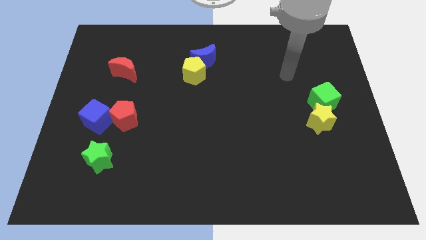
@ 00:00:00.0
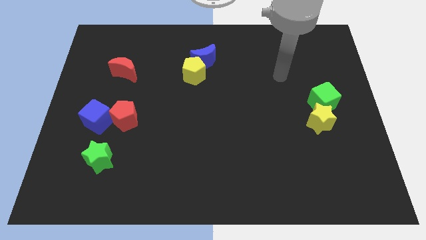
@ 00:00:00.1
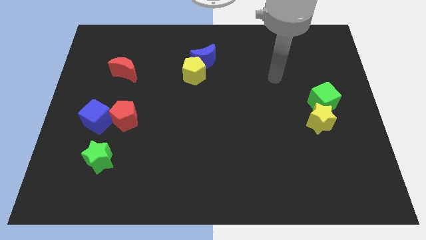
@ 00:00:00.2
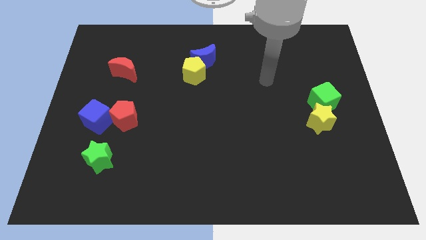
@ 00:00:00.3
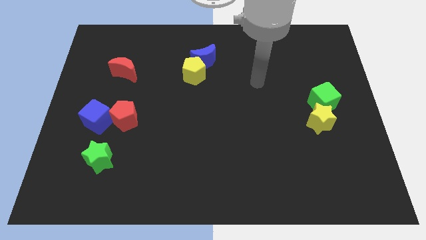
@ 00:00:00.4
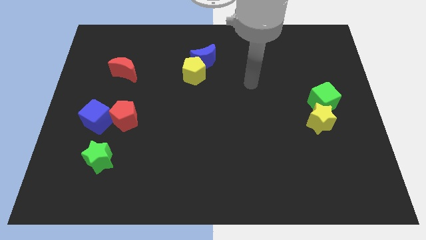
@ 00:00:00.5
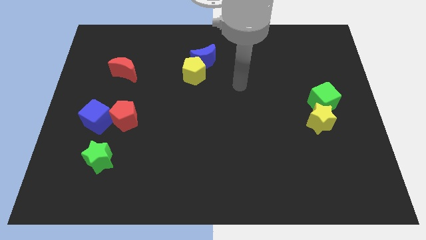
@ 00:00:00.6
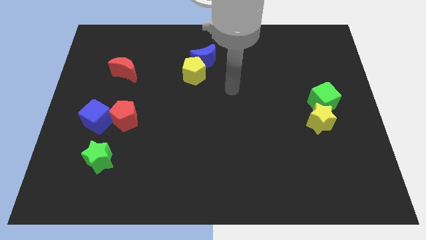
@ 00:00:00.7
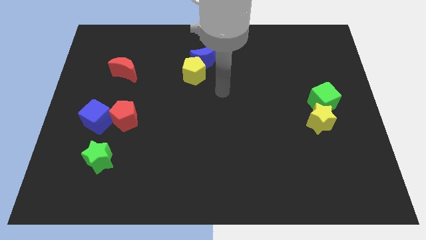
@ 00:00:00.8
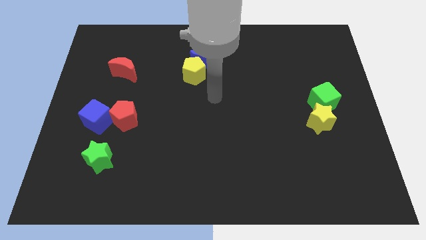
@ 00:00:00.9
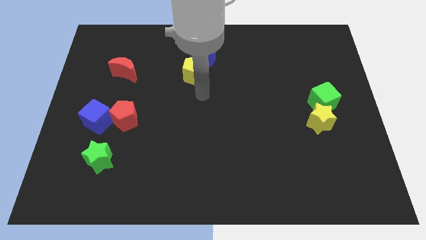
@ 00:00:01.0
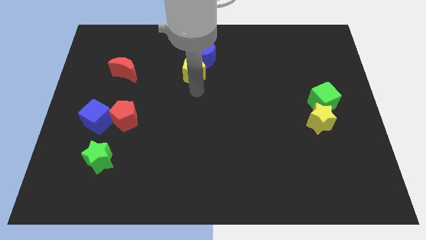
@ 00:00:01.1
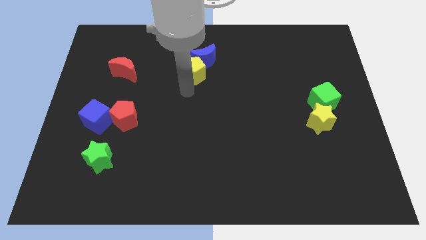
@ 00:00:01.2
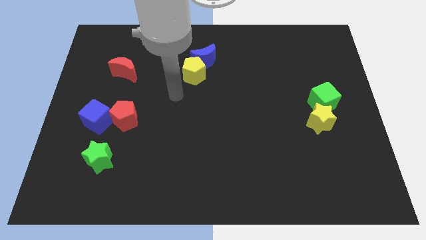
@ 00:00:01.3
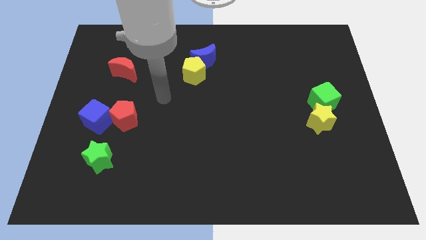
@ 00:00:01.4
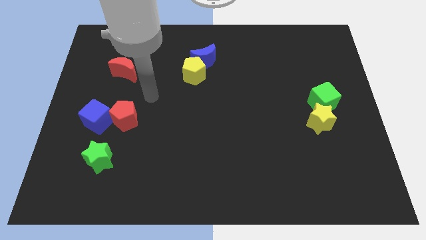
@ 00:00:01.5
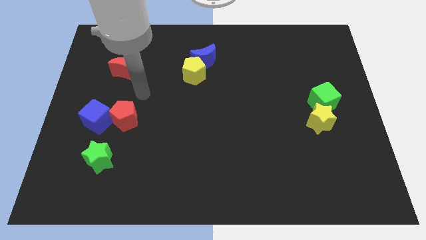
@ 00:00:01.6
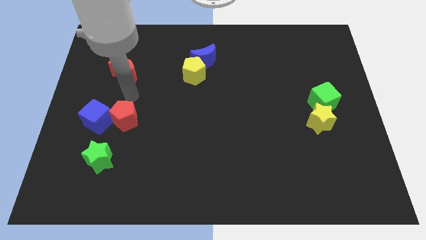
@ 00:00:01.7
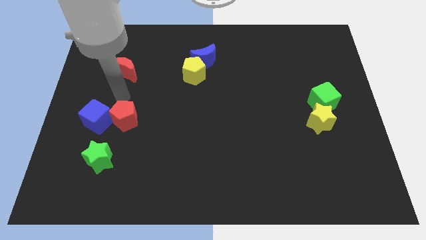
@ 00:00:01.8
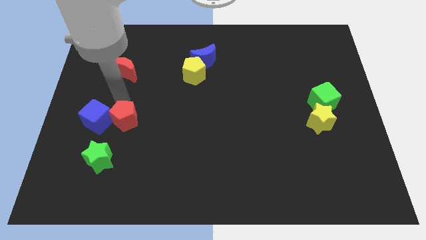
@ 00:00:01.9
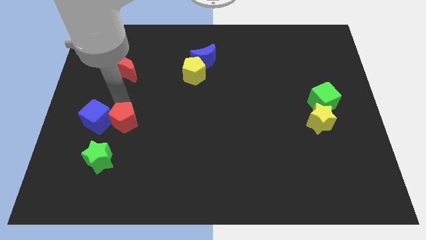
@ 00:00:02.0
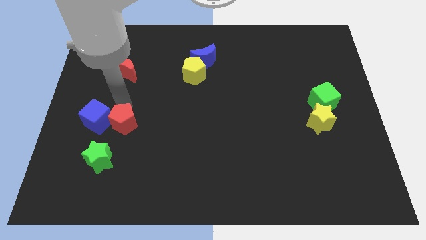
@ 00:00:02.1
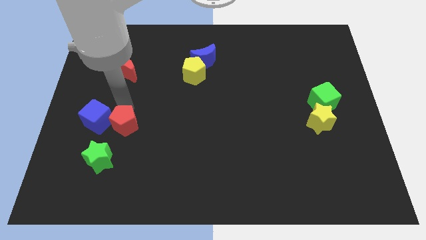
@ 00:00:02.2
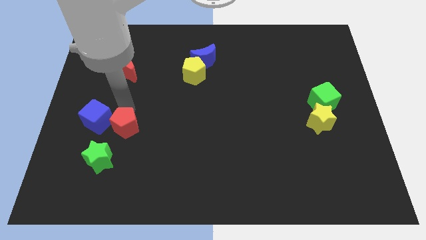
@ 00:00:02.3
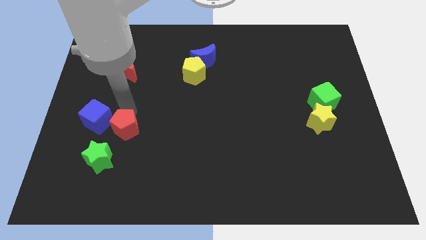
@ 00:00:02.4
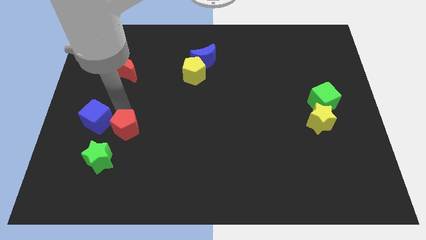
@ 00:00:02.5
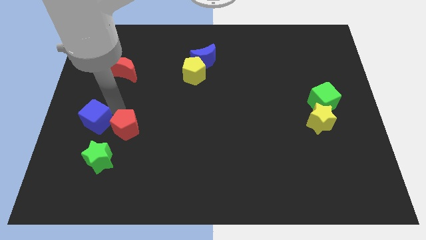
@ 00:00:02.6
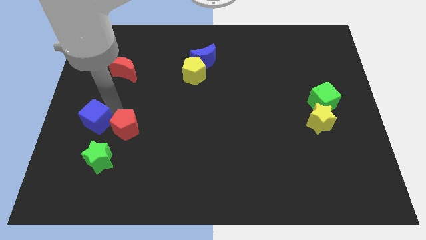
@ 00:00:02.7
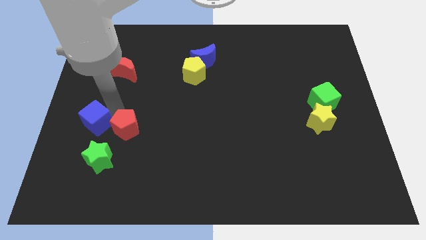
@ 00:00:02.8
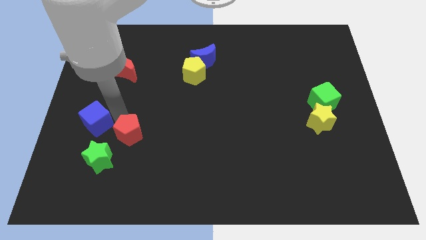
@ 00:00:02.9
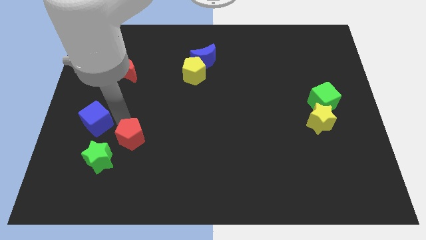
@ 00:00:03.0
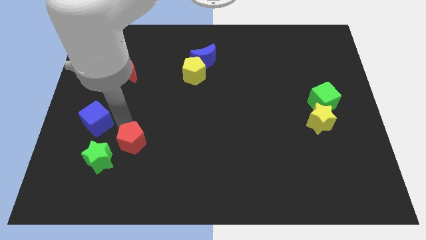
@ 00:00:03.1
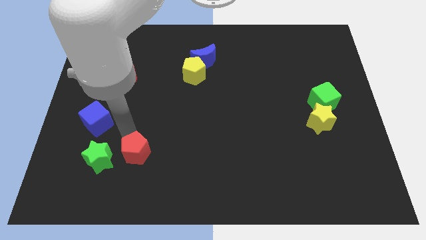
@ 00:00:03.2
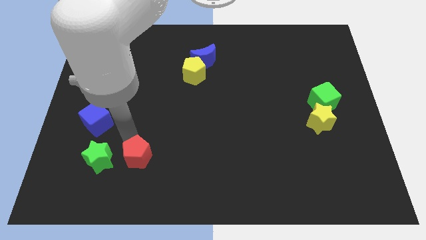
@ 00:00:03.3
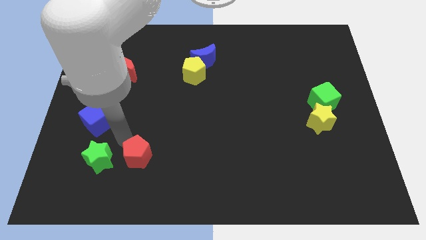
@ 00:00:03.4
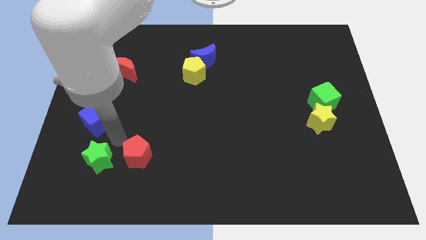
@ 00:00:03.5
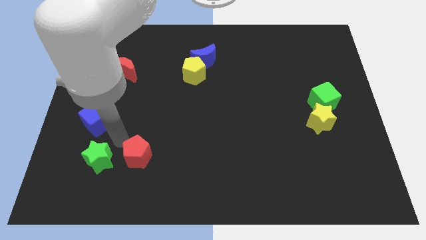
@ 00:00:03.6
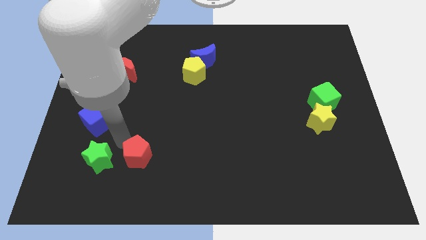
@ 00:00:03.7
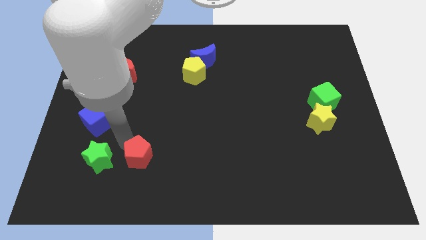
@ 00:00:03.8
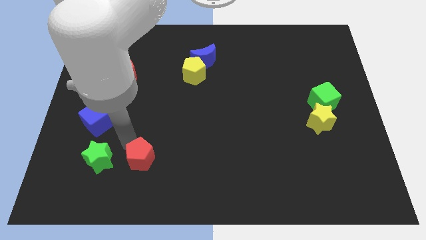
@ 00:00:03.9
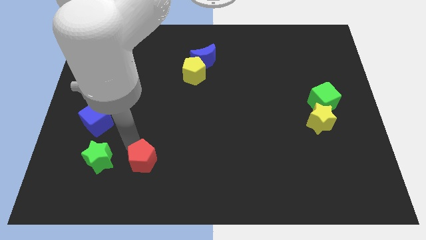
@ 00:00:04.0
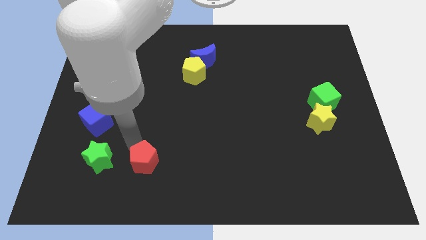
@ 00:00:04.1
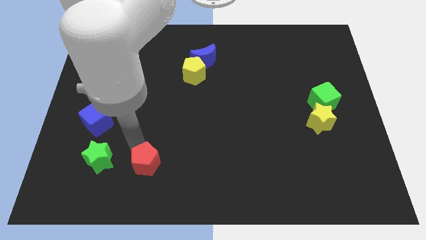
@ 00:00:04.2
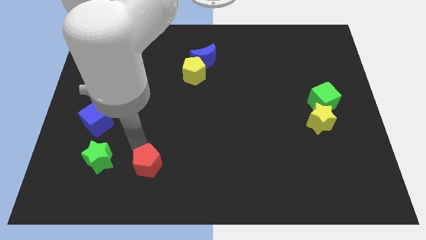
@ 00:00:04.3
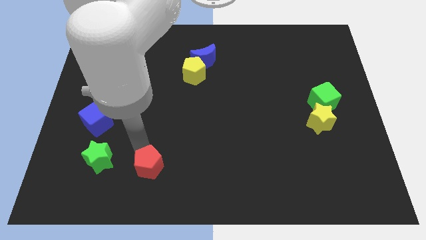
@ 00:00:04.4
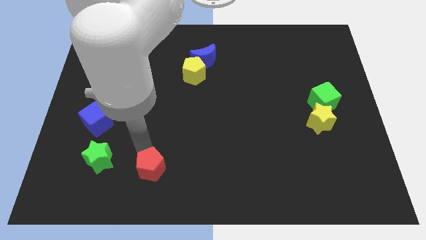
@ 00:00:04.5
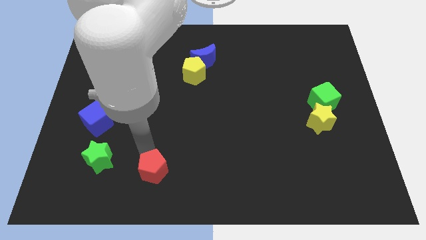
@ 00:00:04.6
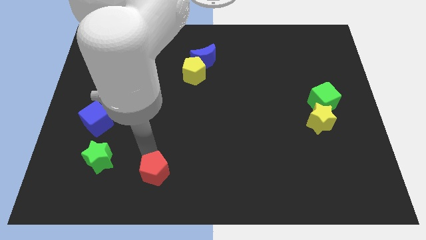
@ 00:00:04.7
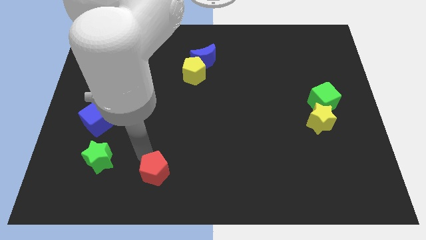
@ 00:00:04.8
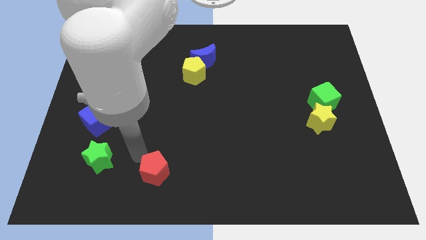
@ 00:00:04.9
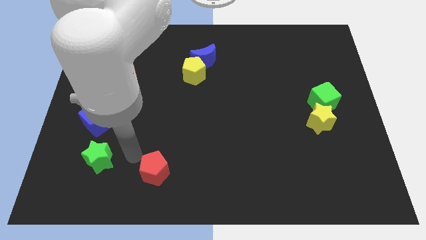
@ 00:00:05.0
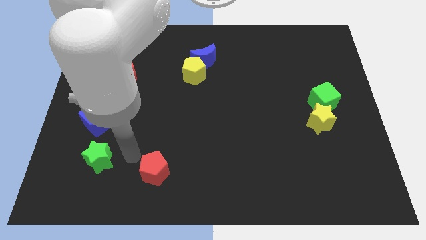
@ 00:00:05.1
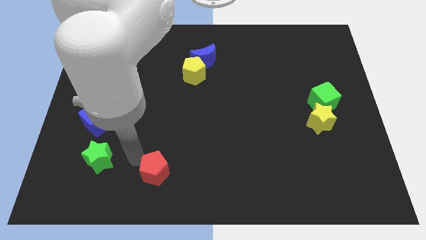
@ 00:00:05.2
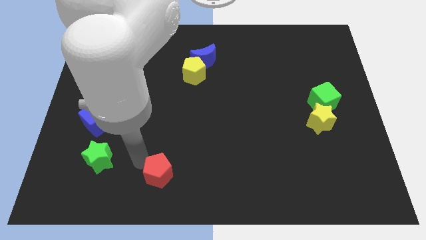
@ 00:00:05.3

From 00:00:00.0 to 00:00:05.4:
move the red pentagon to the bottom side

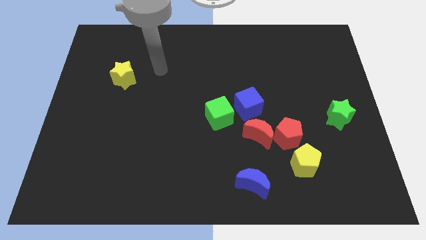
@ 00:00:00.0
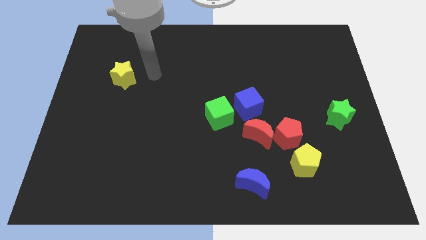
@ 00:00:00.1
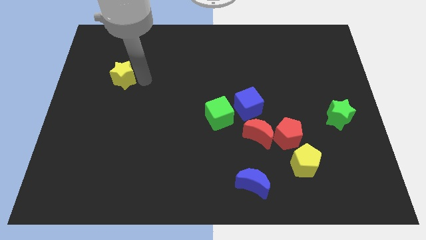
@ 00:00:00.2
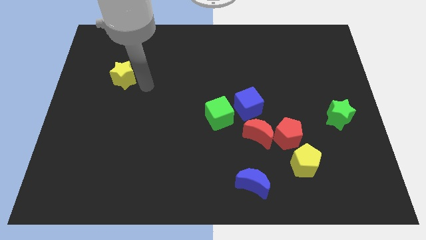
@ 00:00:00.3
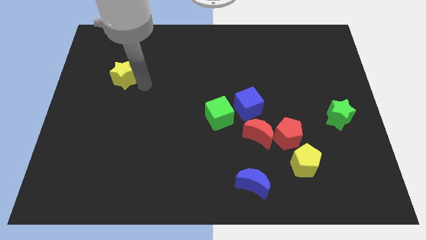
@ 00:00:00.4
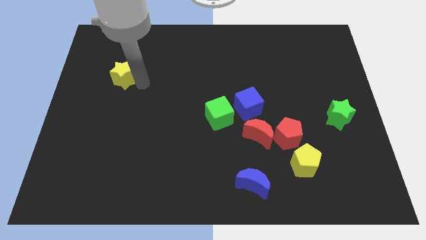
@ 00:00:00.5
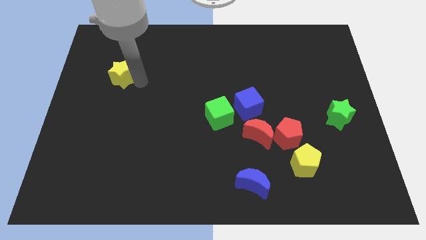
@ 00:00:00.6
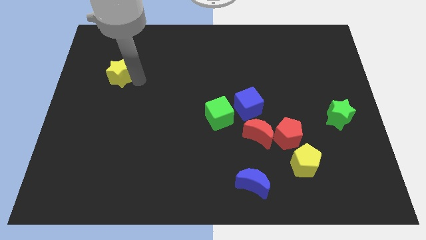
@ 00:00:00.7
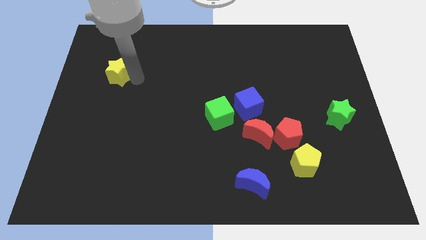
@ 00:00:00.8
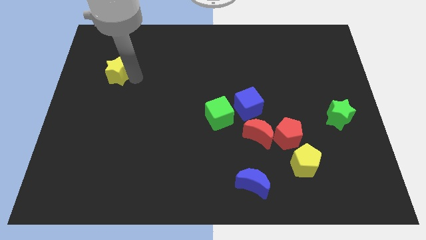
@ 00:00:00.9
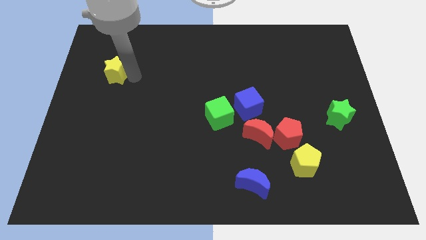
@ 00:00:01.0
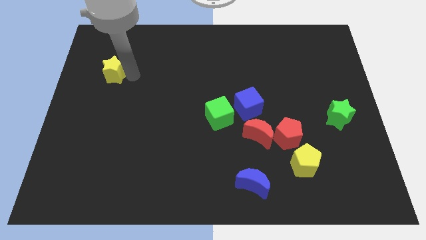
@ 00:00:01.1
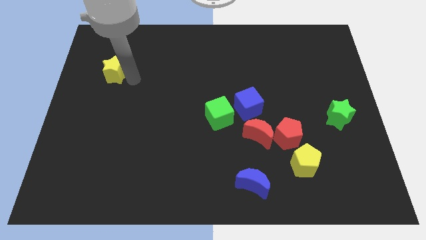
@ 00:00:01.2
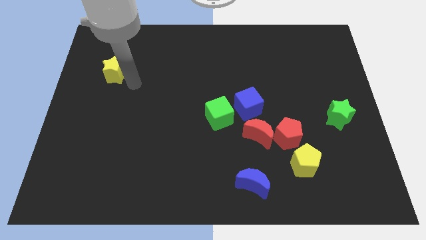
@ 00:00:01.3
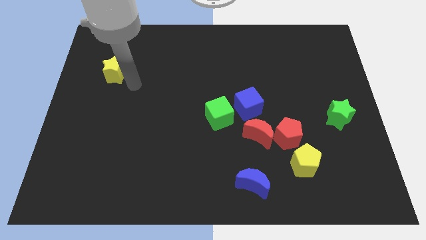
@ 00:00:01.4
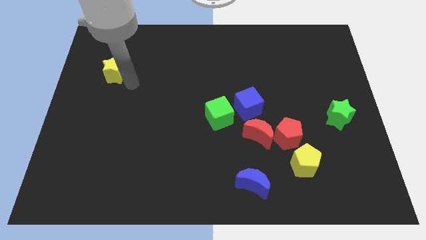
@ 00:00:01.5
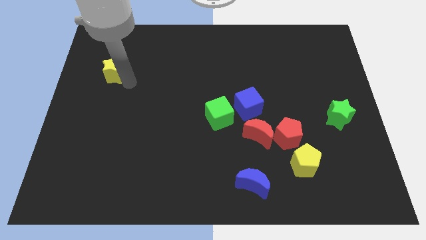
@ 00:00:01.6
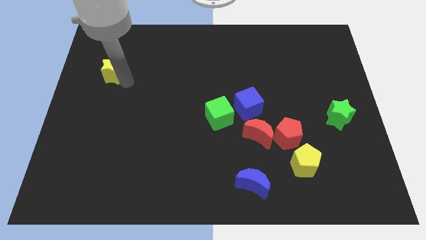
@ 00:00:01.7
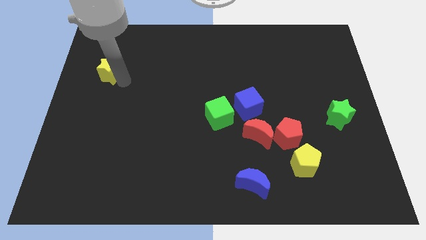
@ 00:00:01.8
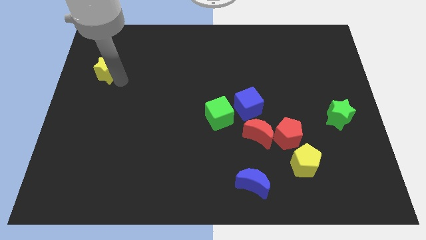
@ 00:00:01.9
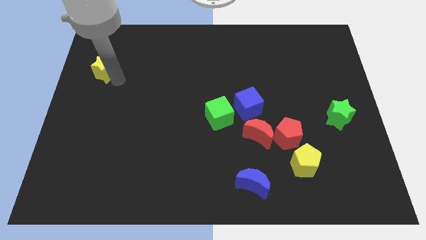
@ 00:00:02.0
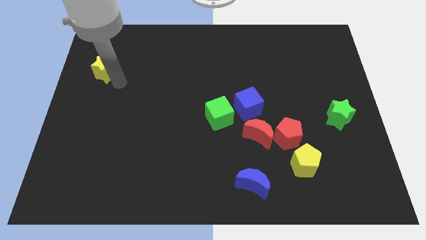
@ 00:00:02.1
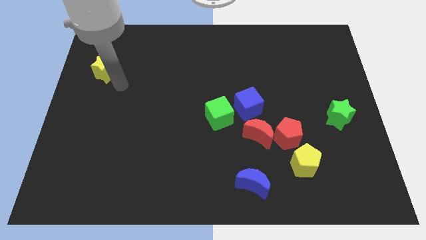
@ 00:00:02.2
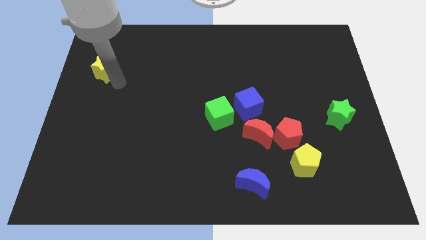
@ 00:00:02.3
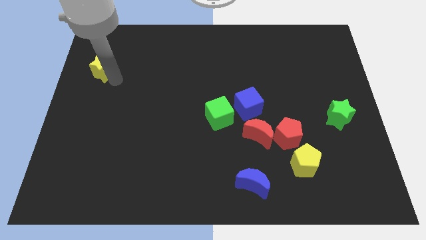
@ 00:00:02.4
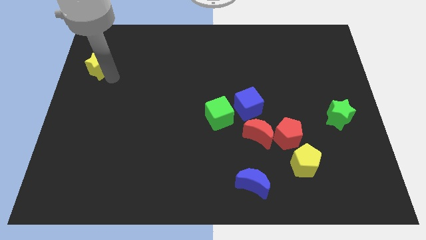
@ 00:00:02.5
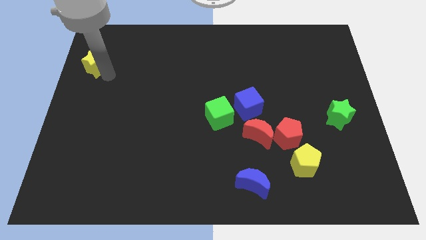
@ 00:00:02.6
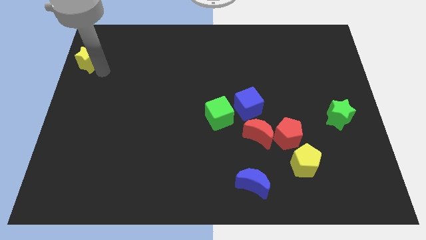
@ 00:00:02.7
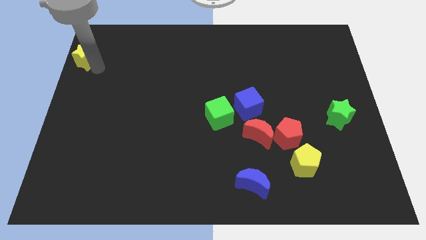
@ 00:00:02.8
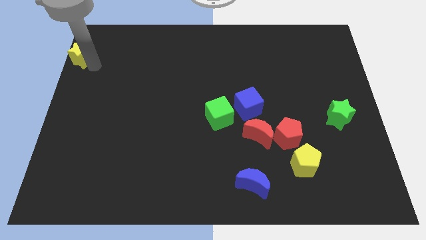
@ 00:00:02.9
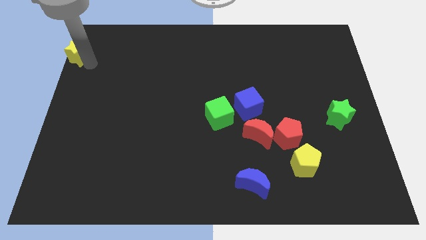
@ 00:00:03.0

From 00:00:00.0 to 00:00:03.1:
push the yellow star to the upper left corner
